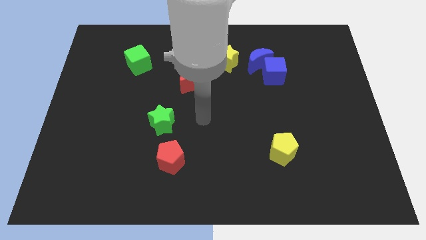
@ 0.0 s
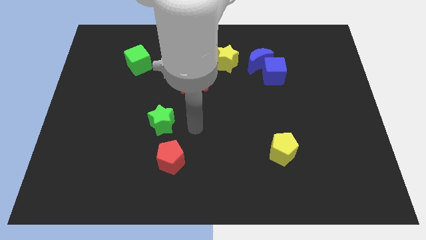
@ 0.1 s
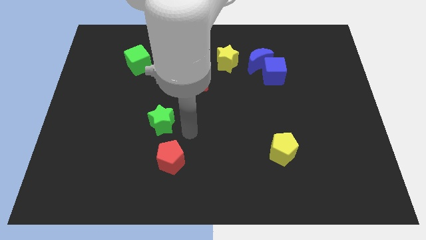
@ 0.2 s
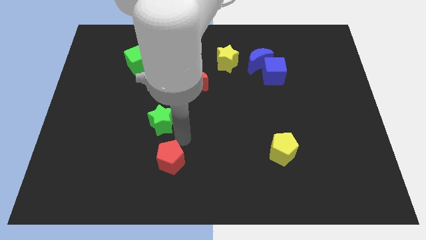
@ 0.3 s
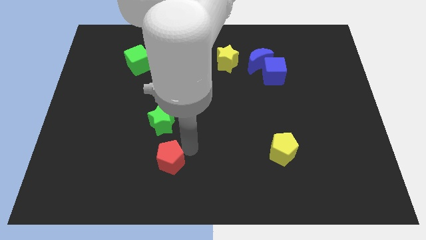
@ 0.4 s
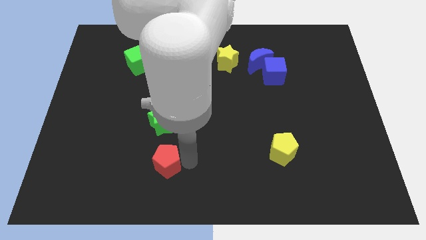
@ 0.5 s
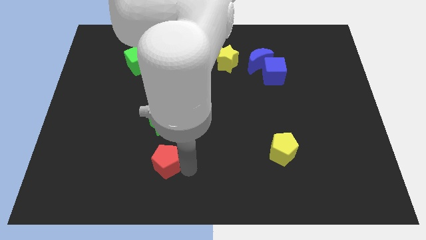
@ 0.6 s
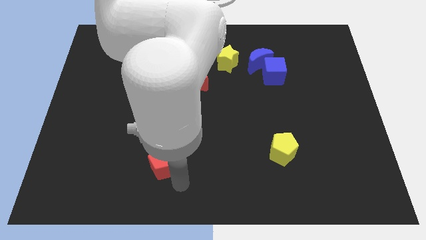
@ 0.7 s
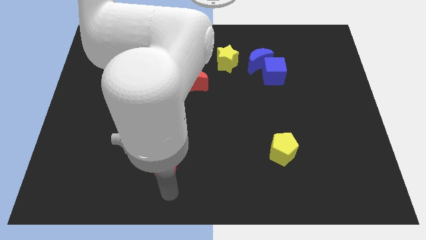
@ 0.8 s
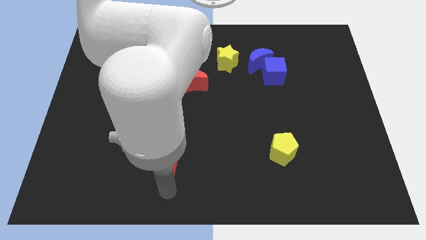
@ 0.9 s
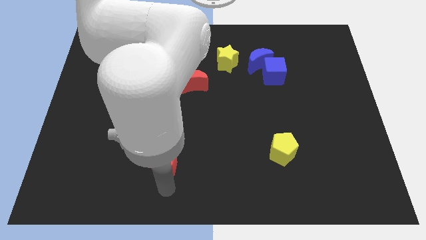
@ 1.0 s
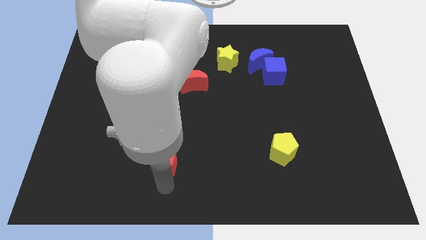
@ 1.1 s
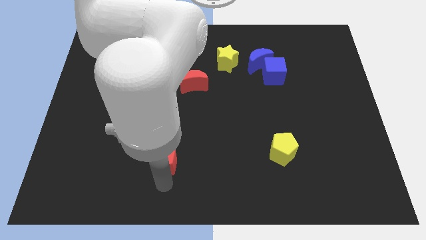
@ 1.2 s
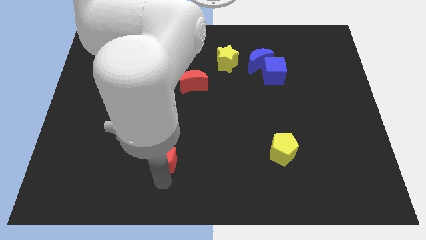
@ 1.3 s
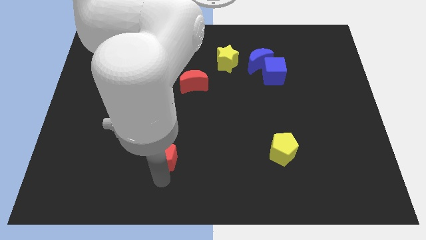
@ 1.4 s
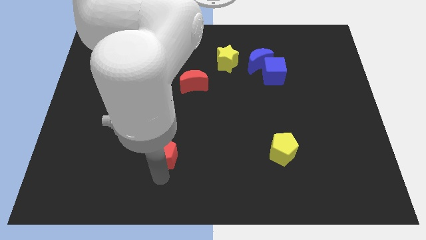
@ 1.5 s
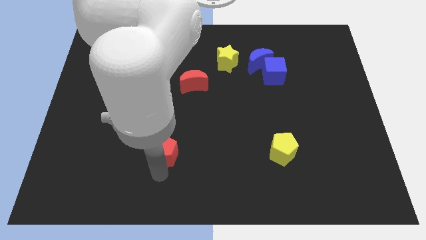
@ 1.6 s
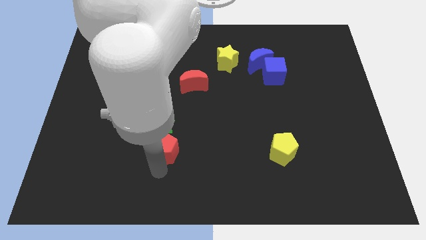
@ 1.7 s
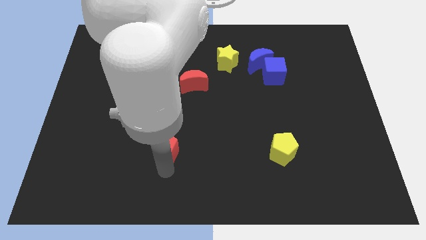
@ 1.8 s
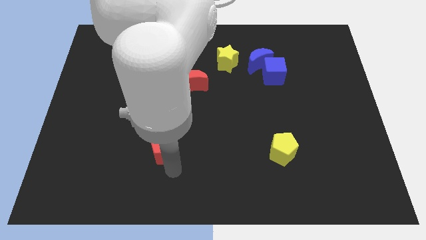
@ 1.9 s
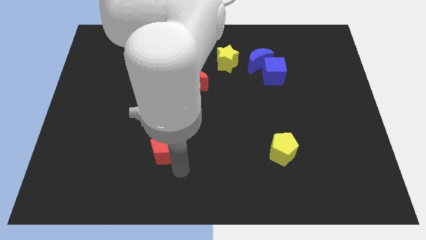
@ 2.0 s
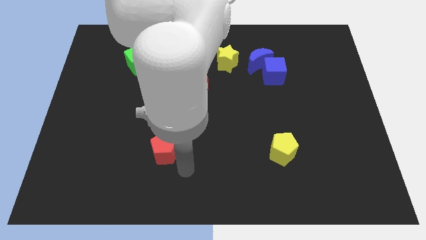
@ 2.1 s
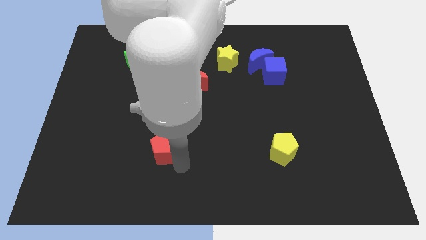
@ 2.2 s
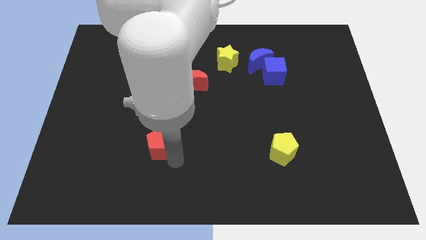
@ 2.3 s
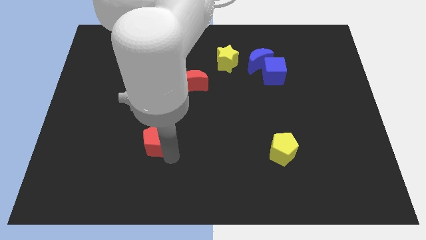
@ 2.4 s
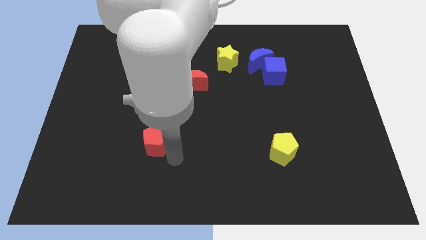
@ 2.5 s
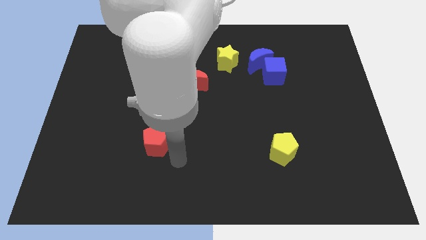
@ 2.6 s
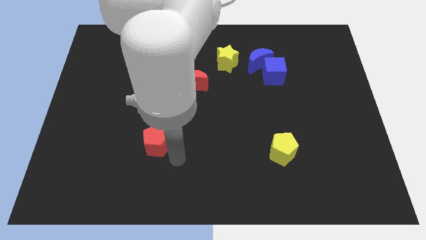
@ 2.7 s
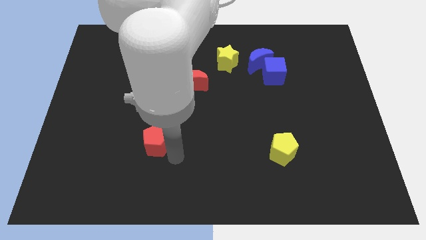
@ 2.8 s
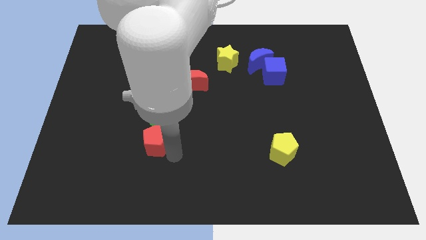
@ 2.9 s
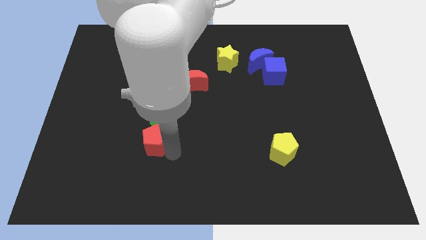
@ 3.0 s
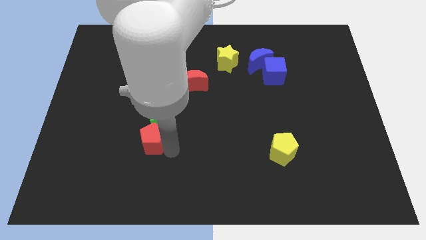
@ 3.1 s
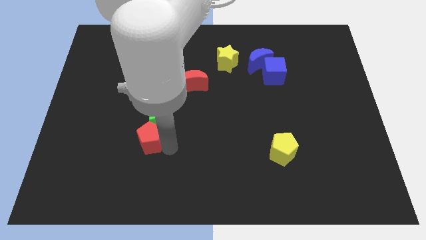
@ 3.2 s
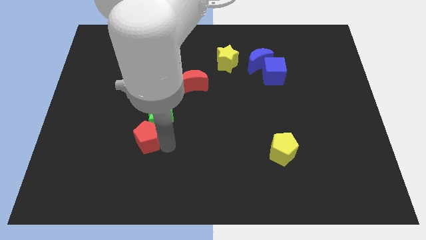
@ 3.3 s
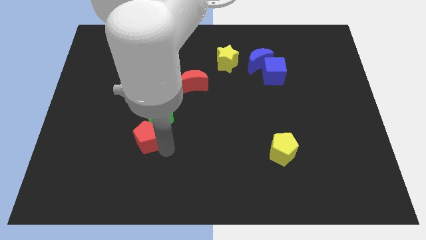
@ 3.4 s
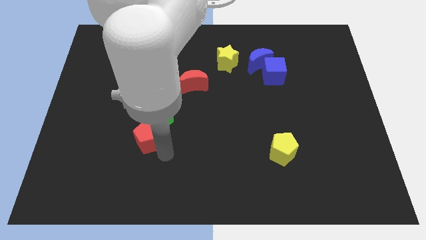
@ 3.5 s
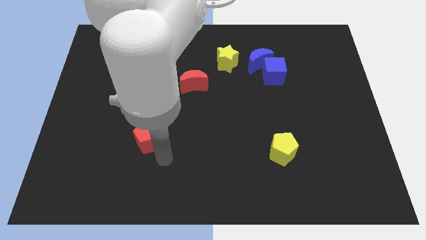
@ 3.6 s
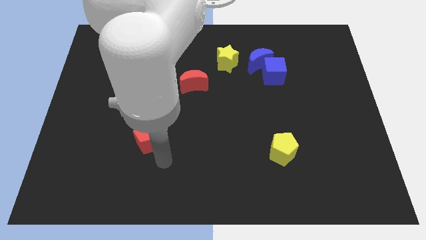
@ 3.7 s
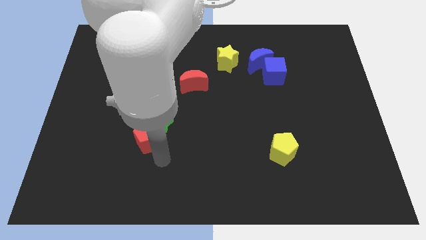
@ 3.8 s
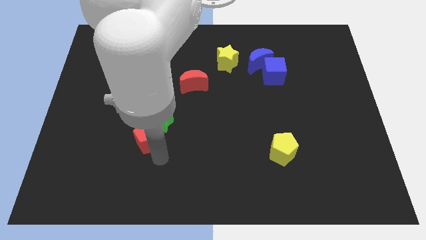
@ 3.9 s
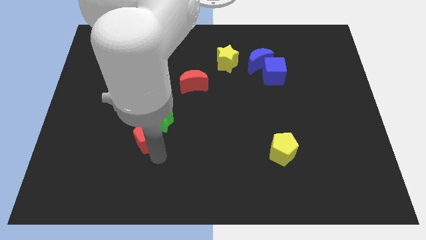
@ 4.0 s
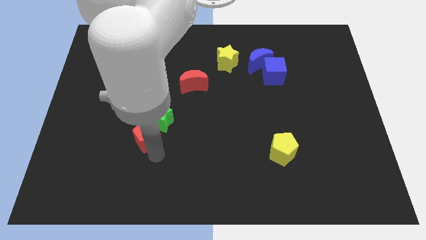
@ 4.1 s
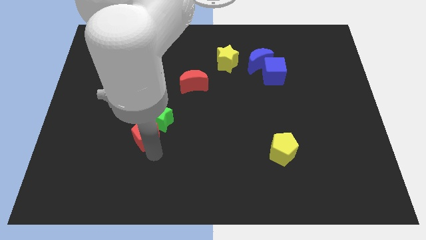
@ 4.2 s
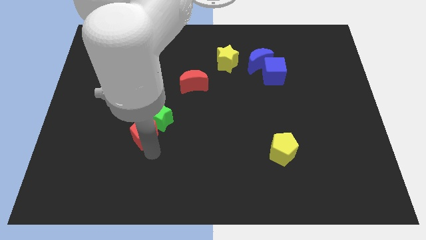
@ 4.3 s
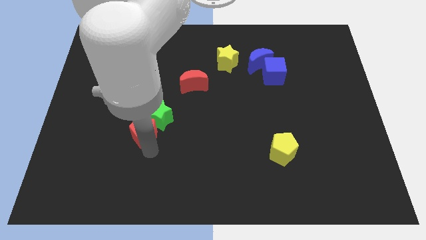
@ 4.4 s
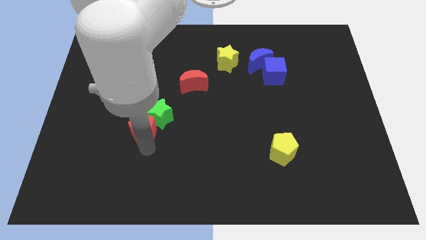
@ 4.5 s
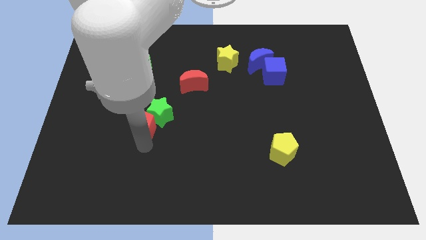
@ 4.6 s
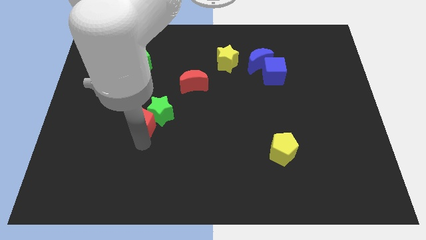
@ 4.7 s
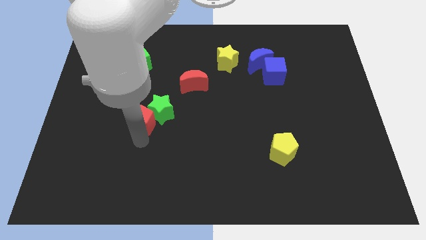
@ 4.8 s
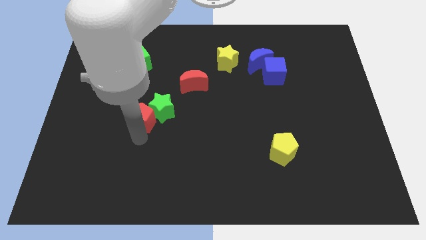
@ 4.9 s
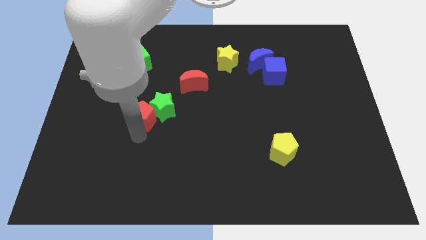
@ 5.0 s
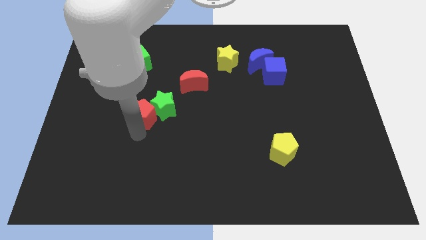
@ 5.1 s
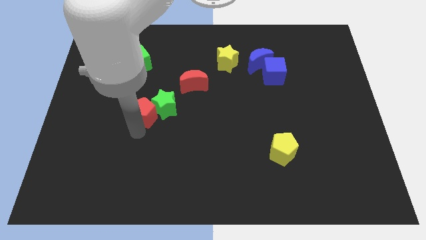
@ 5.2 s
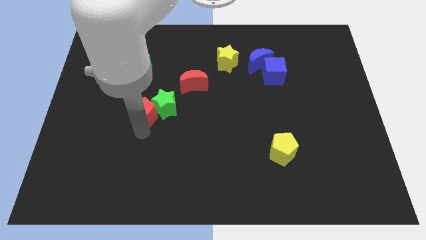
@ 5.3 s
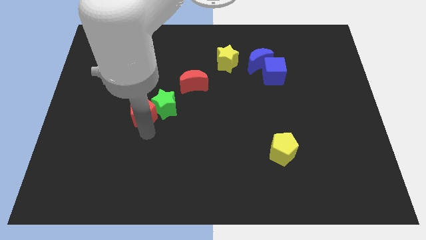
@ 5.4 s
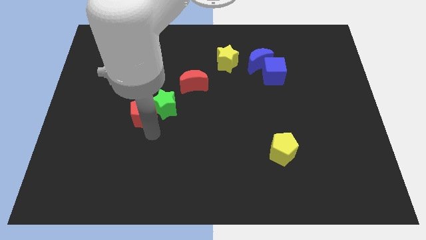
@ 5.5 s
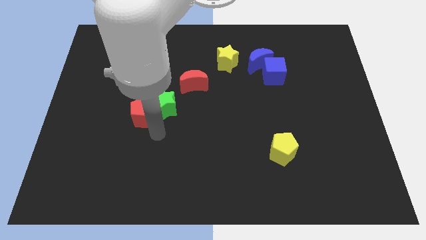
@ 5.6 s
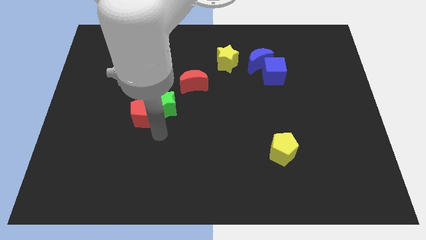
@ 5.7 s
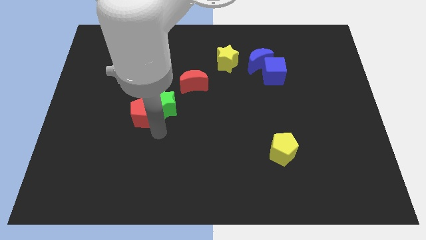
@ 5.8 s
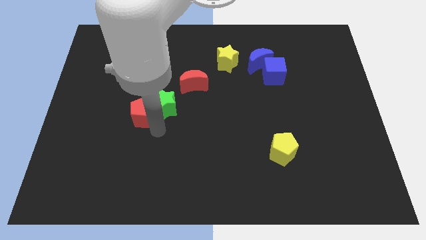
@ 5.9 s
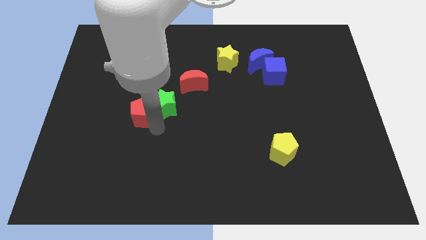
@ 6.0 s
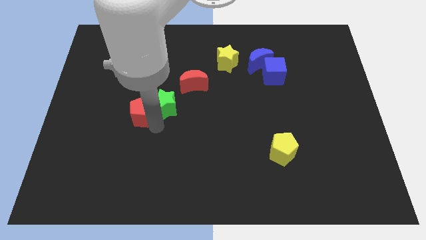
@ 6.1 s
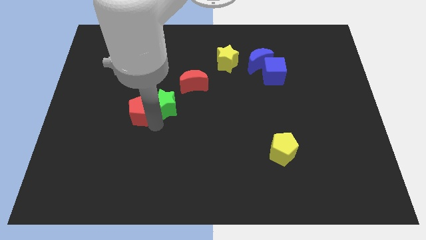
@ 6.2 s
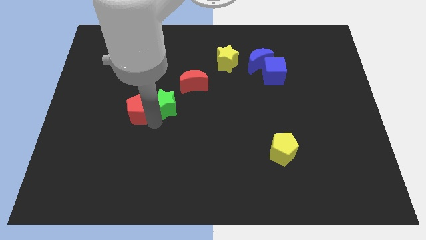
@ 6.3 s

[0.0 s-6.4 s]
put the red pentagon to the bottom side of the green cube

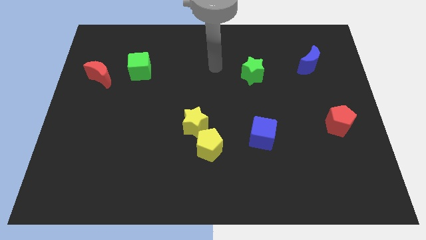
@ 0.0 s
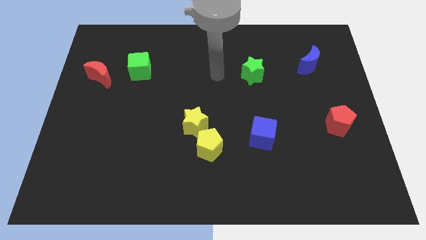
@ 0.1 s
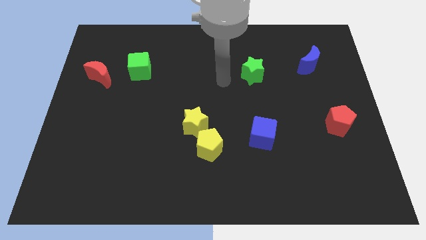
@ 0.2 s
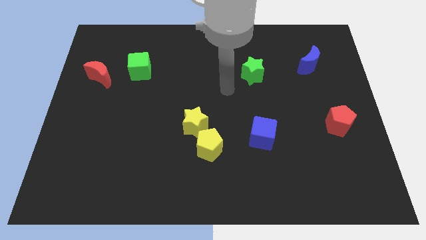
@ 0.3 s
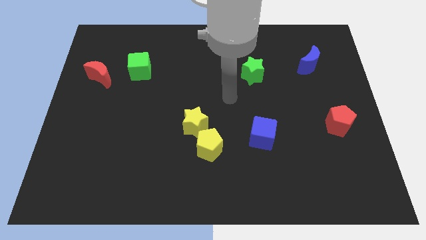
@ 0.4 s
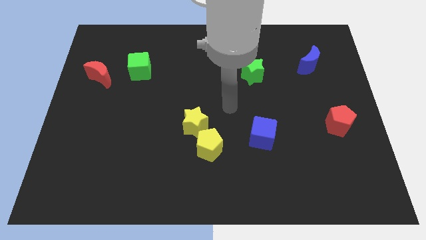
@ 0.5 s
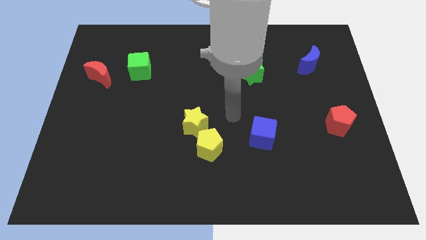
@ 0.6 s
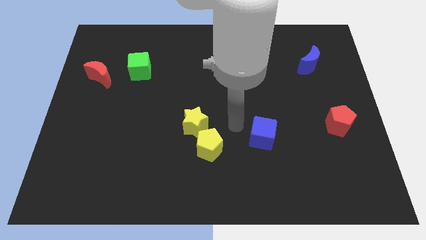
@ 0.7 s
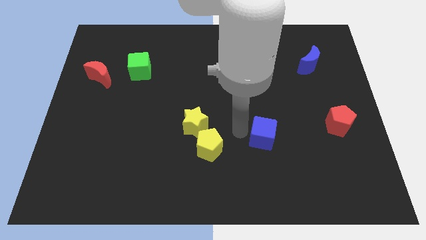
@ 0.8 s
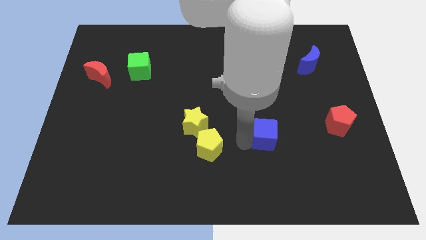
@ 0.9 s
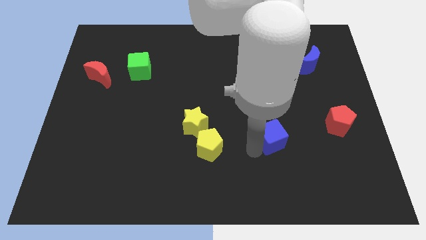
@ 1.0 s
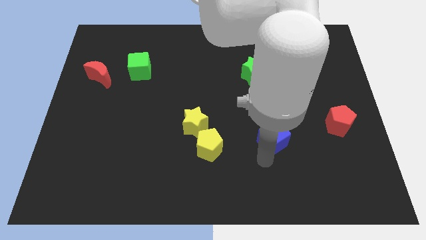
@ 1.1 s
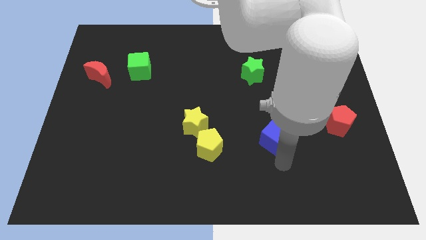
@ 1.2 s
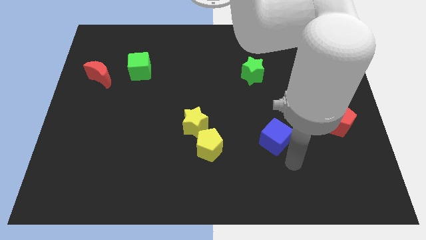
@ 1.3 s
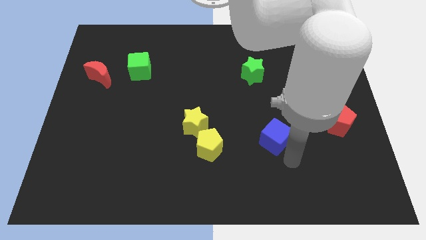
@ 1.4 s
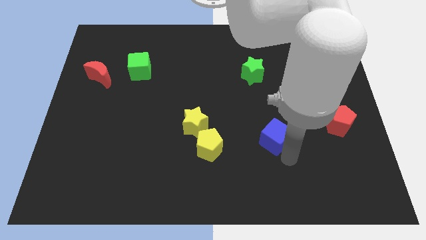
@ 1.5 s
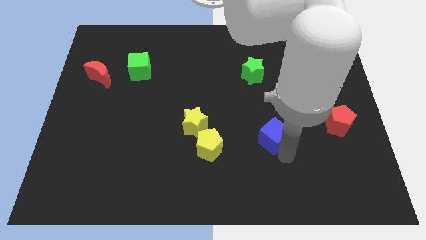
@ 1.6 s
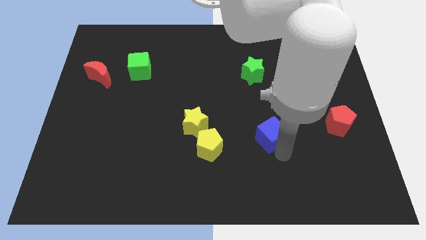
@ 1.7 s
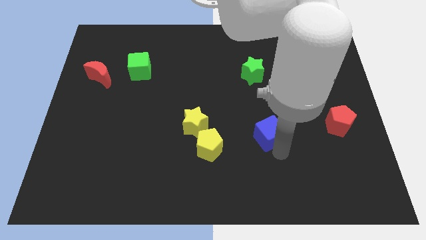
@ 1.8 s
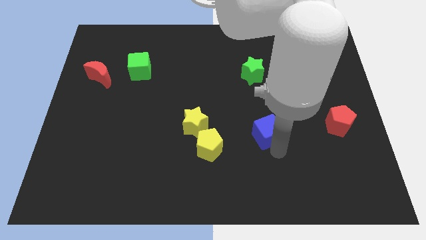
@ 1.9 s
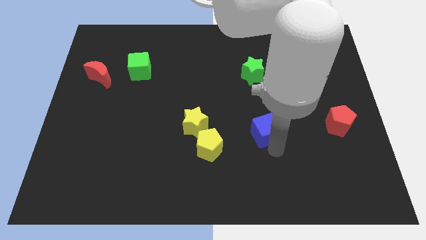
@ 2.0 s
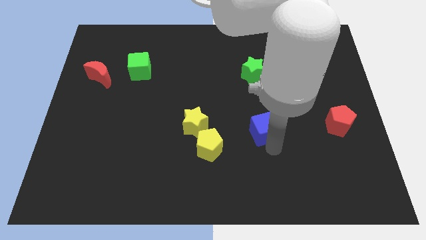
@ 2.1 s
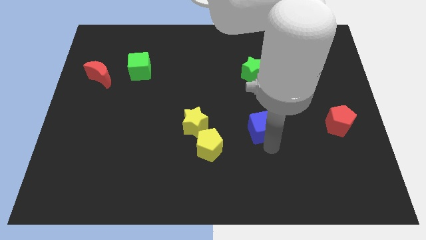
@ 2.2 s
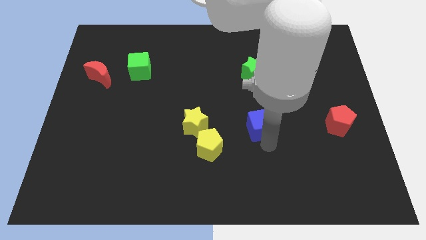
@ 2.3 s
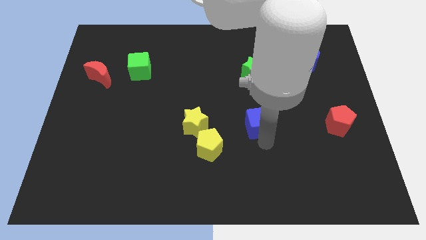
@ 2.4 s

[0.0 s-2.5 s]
put the blue cube to the bottom side of the green star
